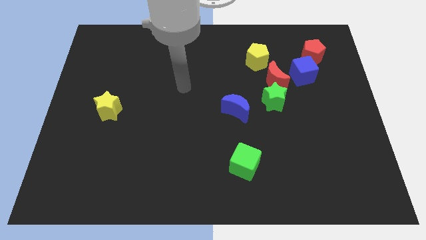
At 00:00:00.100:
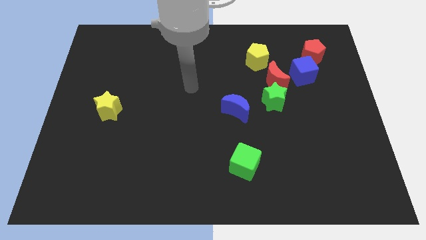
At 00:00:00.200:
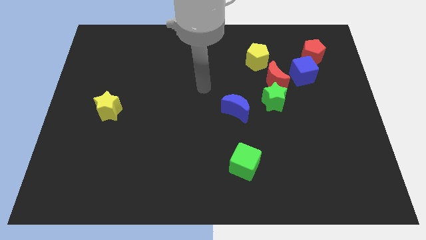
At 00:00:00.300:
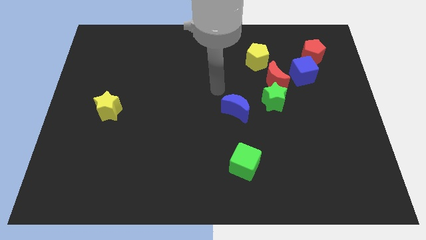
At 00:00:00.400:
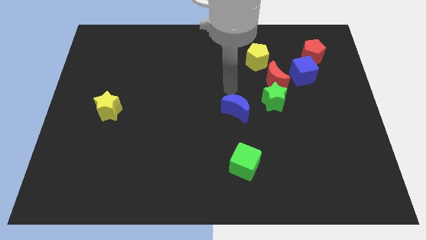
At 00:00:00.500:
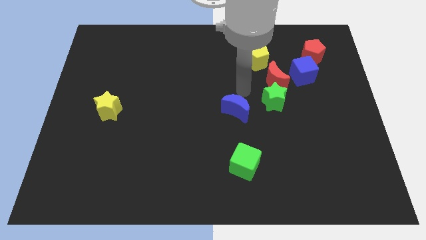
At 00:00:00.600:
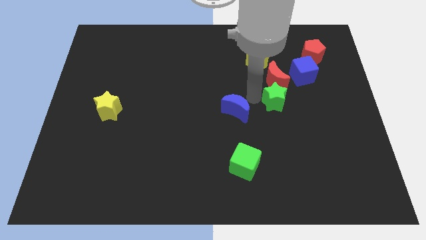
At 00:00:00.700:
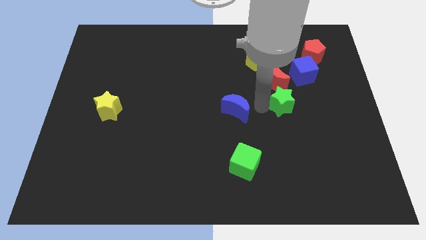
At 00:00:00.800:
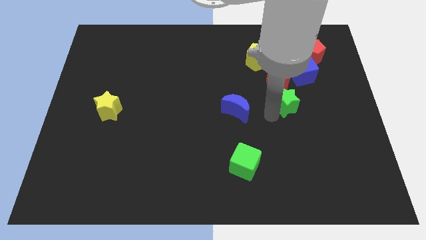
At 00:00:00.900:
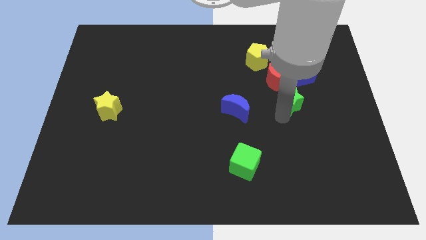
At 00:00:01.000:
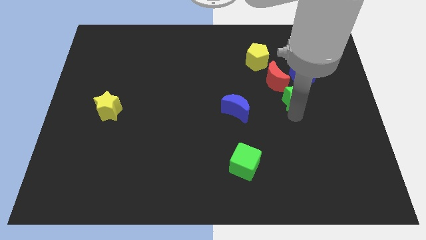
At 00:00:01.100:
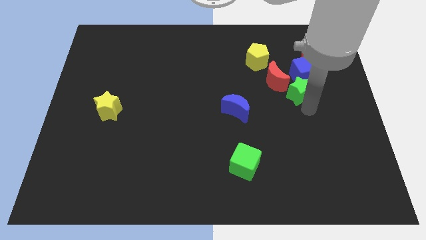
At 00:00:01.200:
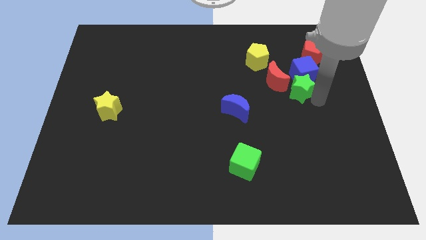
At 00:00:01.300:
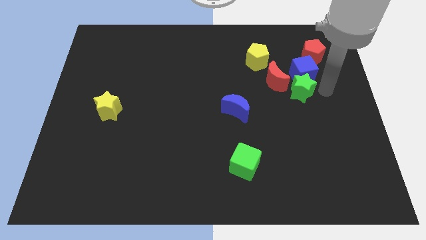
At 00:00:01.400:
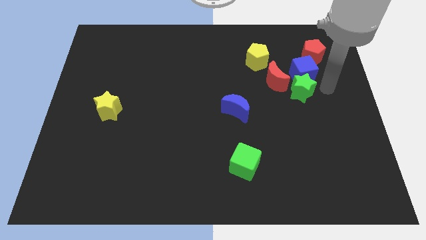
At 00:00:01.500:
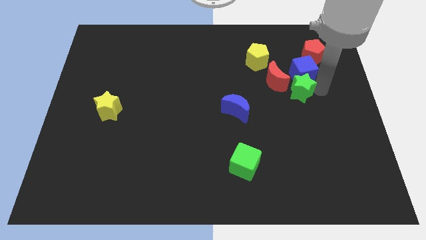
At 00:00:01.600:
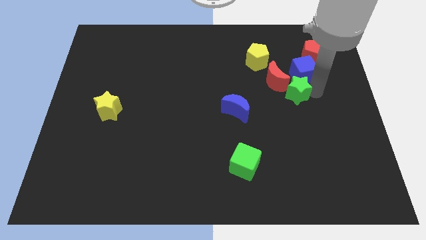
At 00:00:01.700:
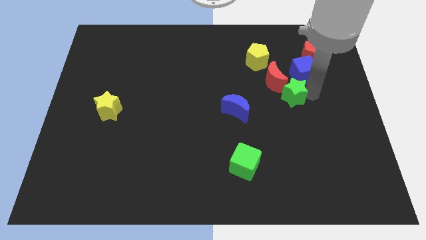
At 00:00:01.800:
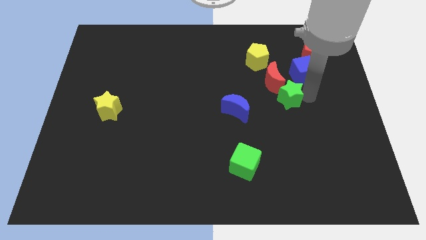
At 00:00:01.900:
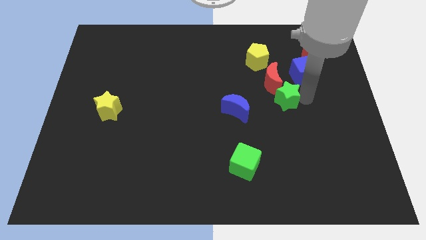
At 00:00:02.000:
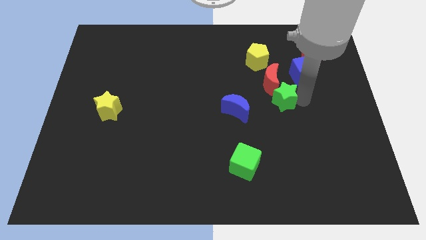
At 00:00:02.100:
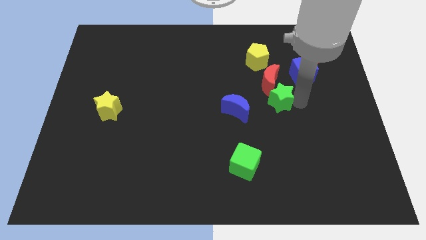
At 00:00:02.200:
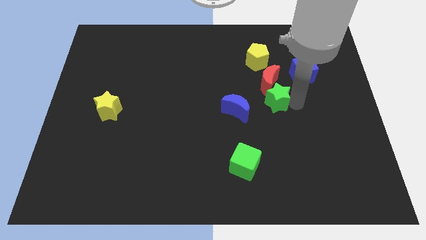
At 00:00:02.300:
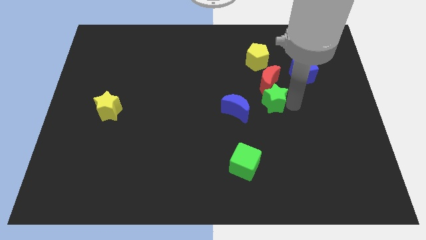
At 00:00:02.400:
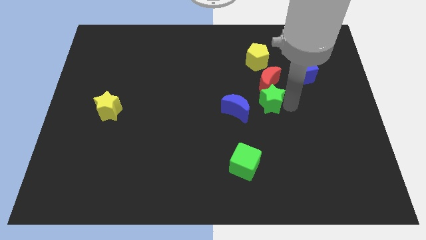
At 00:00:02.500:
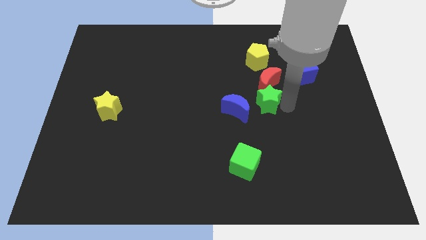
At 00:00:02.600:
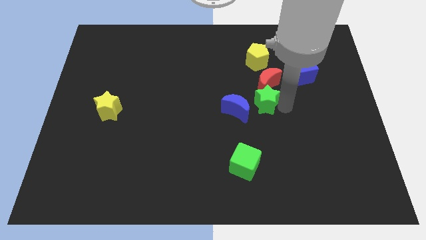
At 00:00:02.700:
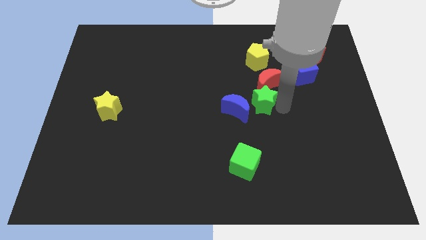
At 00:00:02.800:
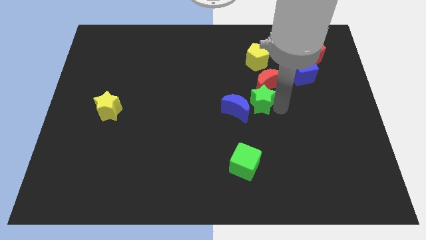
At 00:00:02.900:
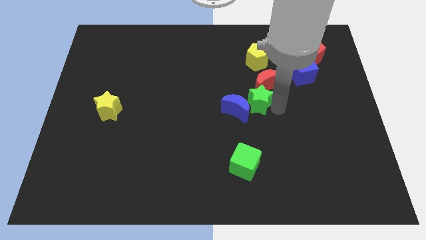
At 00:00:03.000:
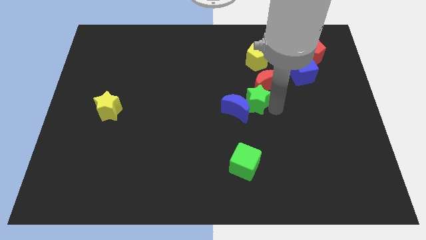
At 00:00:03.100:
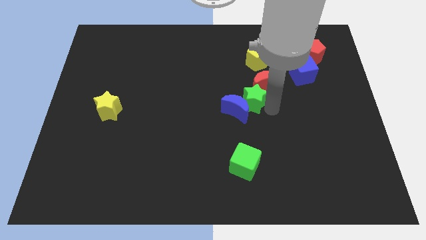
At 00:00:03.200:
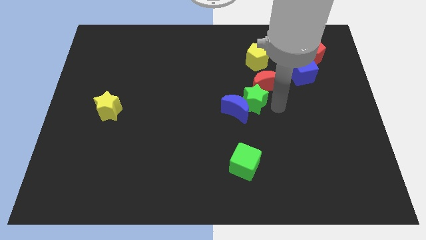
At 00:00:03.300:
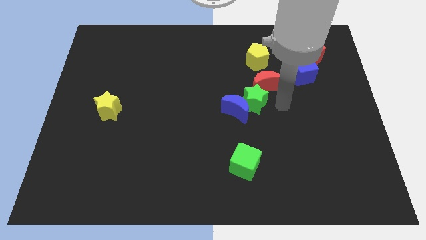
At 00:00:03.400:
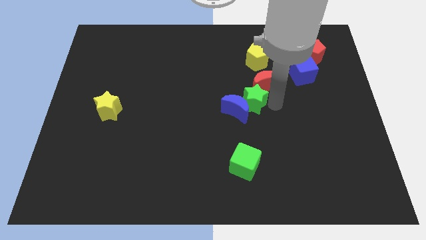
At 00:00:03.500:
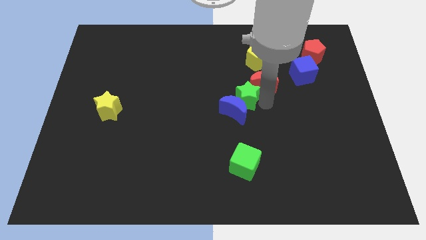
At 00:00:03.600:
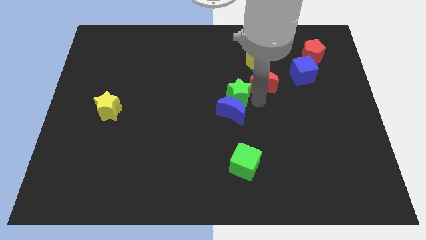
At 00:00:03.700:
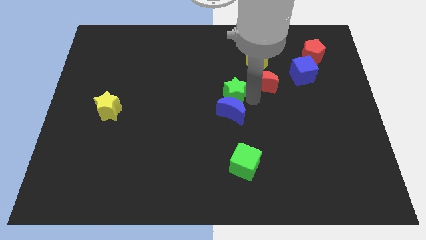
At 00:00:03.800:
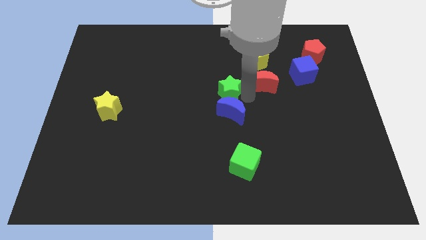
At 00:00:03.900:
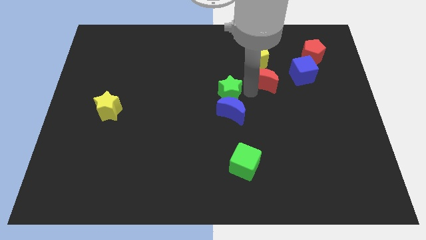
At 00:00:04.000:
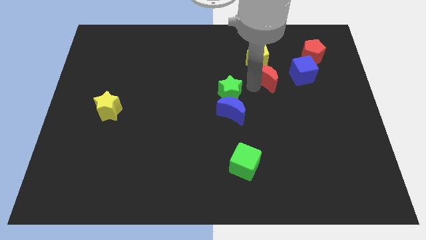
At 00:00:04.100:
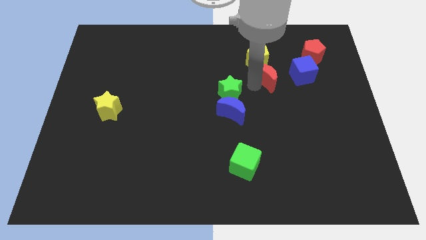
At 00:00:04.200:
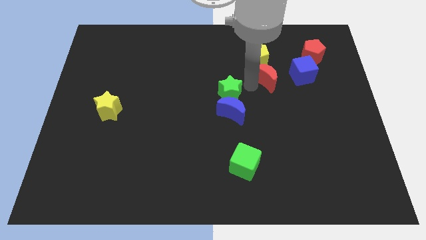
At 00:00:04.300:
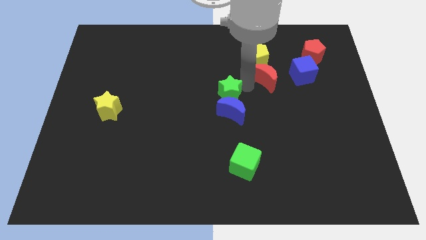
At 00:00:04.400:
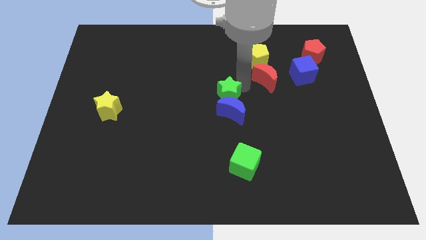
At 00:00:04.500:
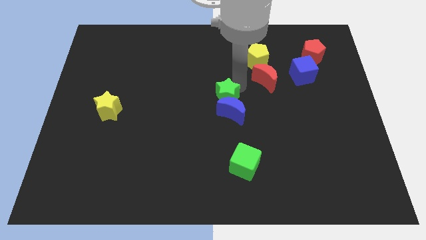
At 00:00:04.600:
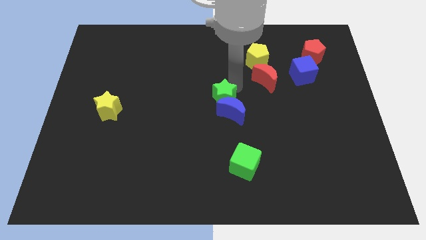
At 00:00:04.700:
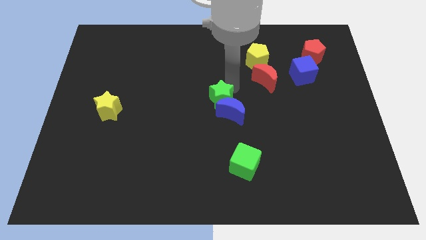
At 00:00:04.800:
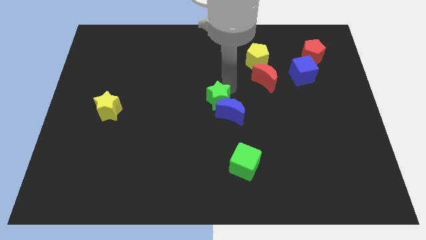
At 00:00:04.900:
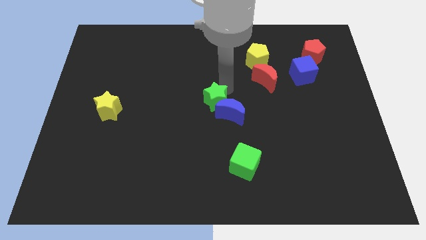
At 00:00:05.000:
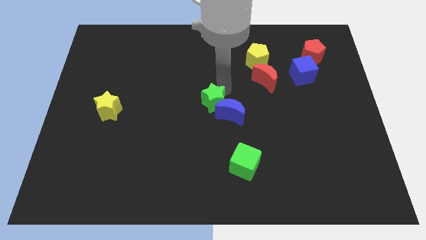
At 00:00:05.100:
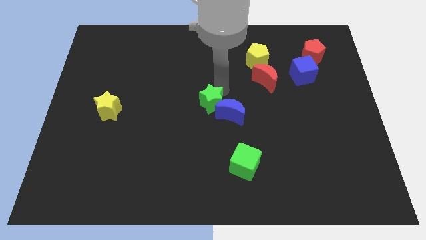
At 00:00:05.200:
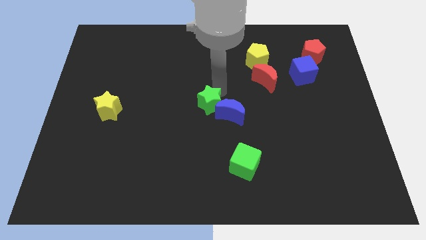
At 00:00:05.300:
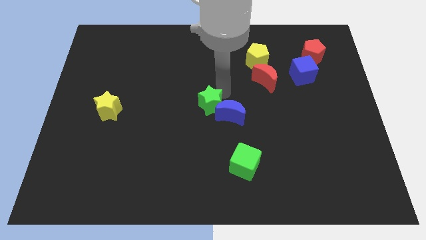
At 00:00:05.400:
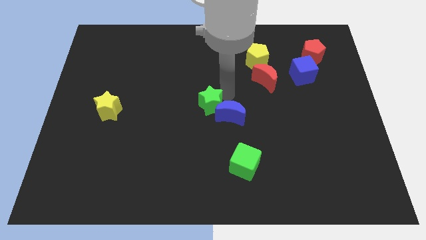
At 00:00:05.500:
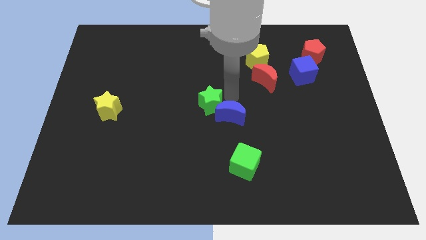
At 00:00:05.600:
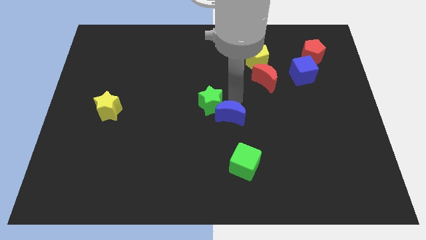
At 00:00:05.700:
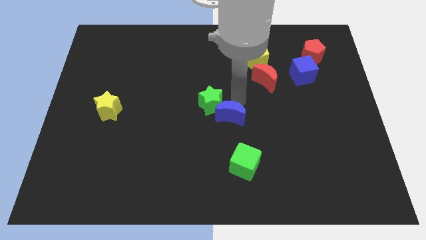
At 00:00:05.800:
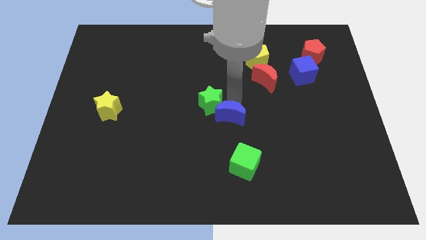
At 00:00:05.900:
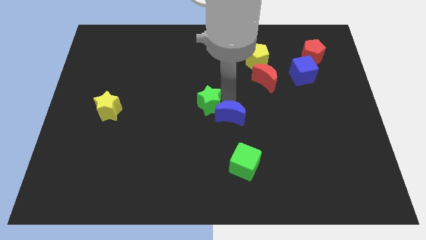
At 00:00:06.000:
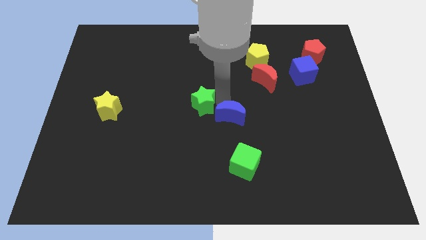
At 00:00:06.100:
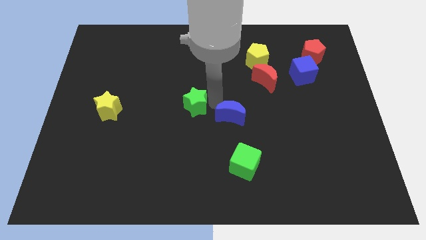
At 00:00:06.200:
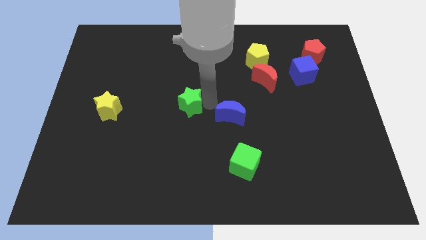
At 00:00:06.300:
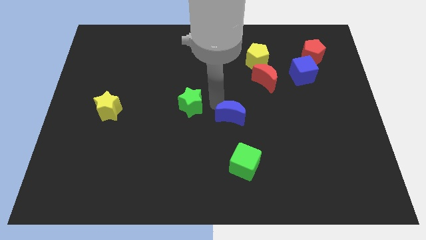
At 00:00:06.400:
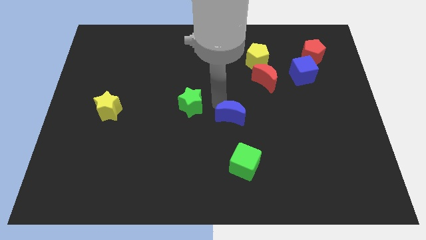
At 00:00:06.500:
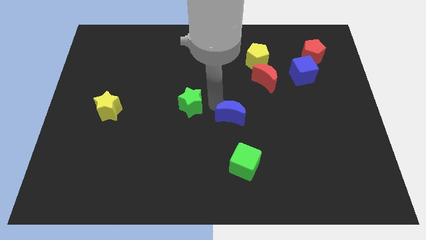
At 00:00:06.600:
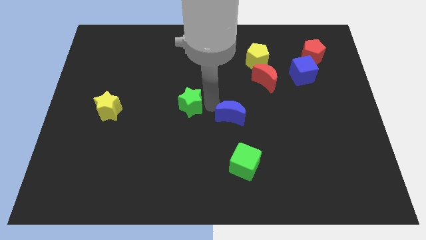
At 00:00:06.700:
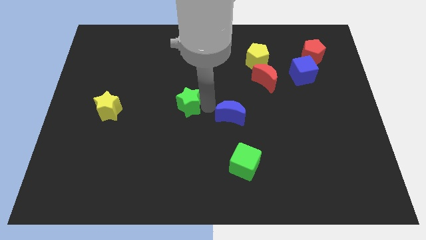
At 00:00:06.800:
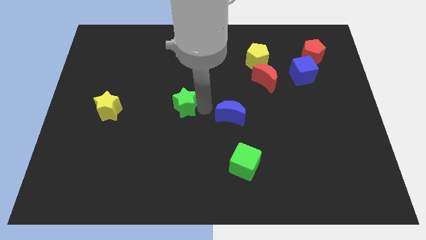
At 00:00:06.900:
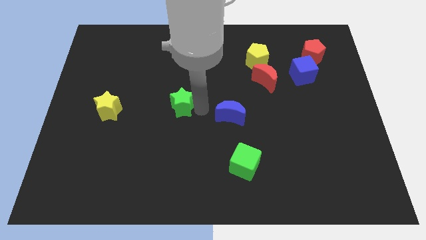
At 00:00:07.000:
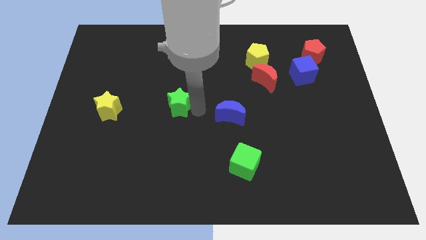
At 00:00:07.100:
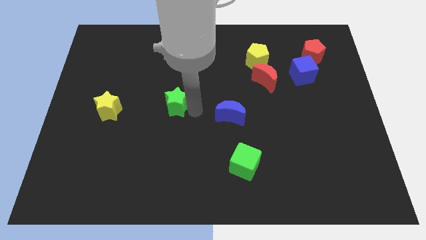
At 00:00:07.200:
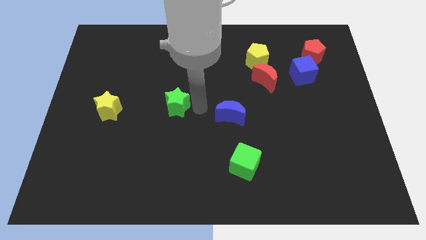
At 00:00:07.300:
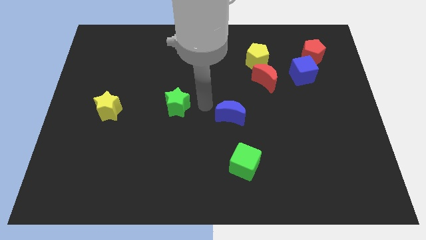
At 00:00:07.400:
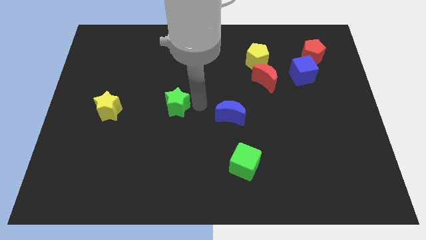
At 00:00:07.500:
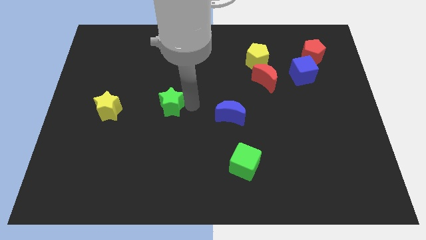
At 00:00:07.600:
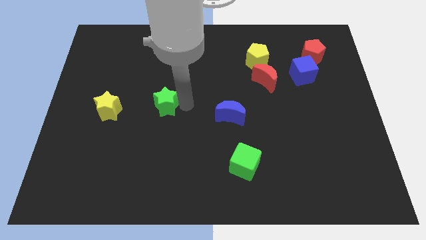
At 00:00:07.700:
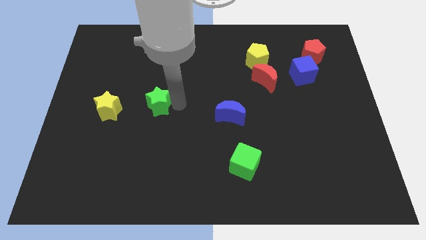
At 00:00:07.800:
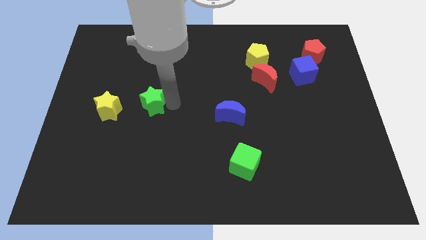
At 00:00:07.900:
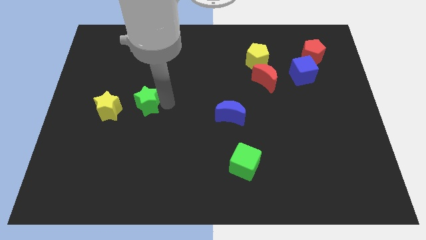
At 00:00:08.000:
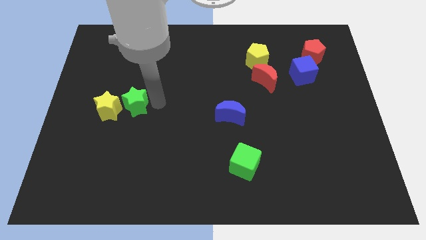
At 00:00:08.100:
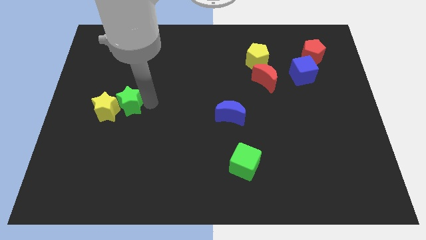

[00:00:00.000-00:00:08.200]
push the green star next to the yellow star
